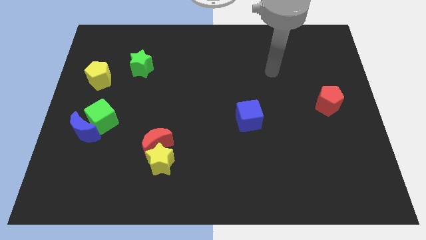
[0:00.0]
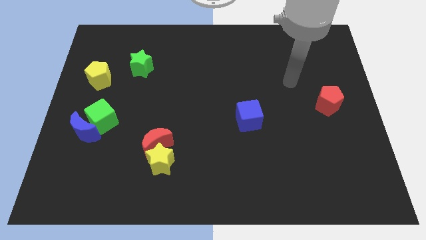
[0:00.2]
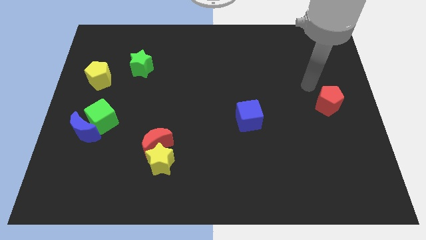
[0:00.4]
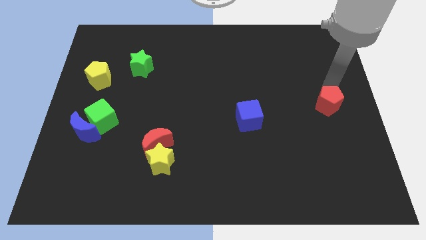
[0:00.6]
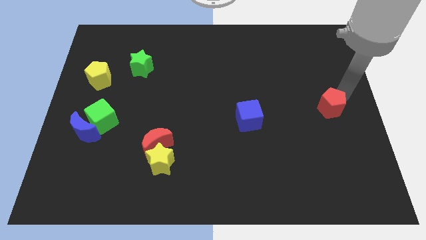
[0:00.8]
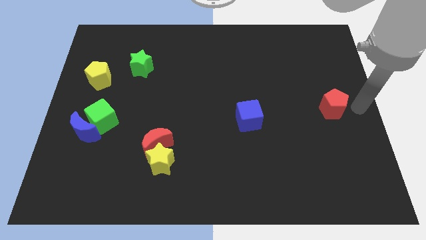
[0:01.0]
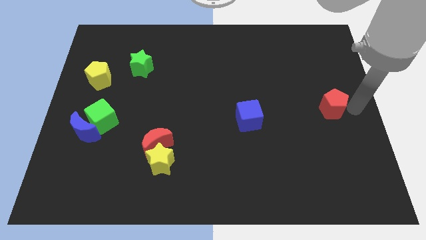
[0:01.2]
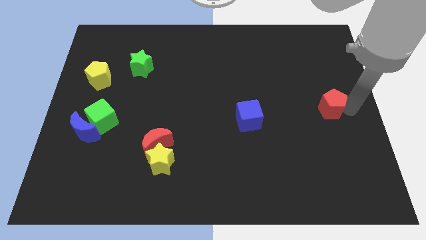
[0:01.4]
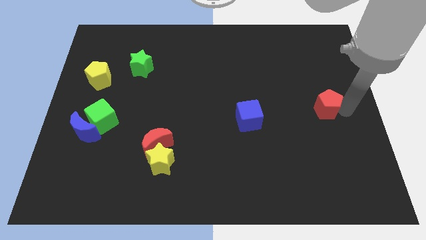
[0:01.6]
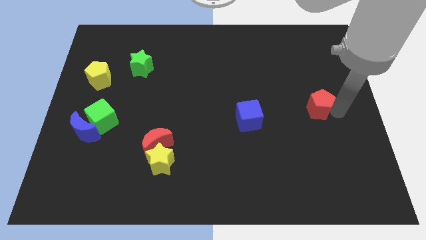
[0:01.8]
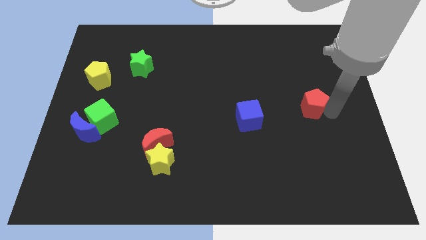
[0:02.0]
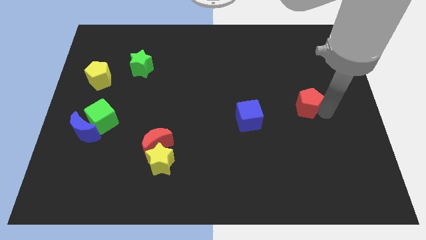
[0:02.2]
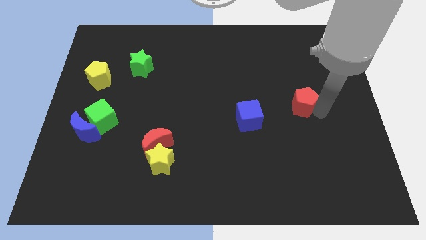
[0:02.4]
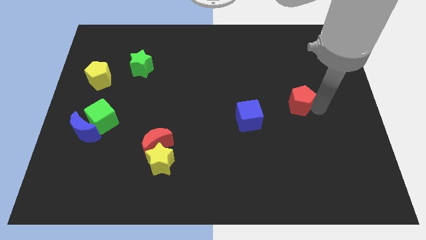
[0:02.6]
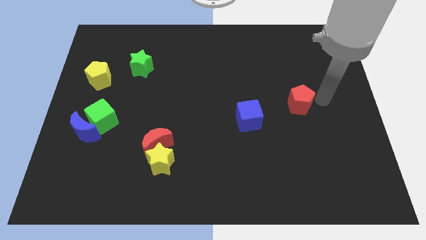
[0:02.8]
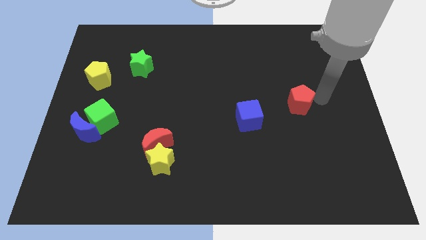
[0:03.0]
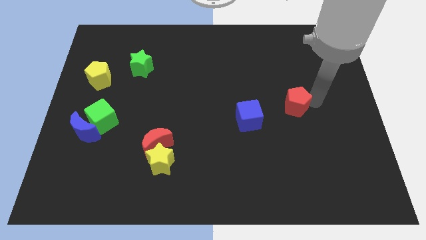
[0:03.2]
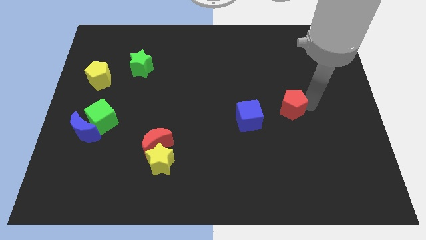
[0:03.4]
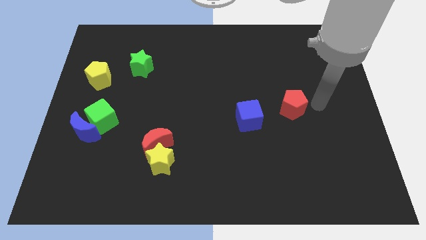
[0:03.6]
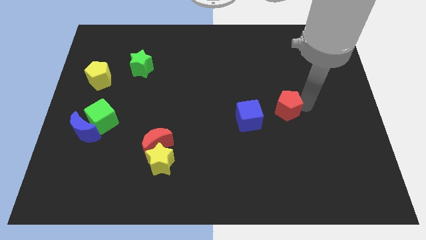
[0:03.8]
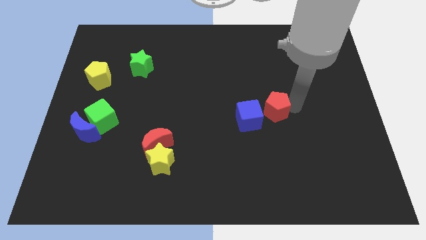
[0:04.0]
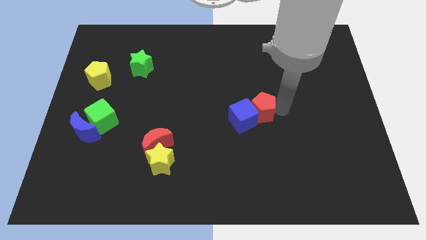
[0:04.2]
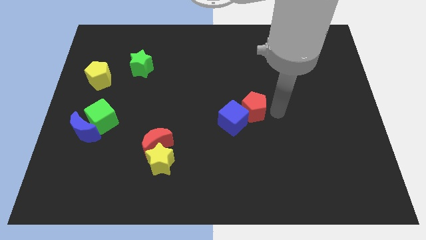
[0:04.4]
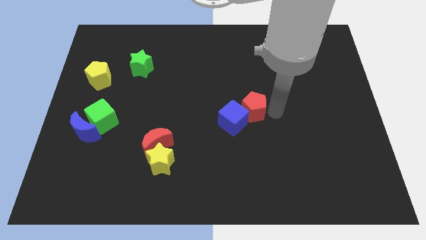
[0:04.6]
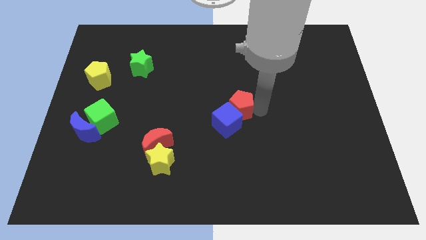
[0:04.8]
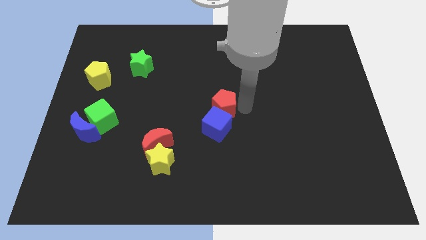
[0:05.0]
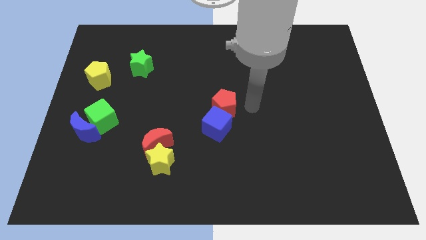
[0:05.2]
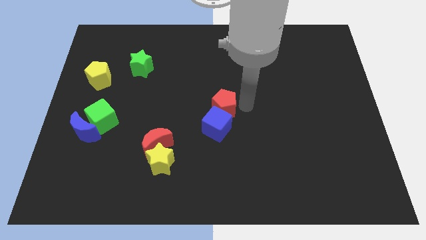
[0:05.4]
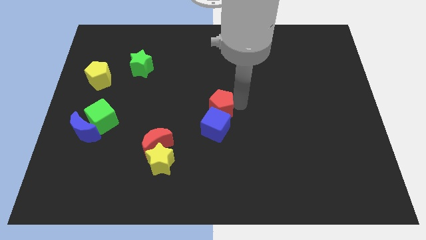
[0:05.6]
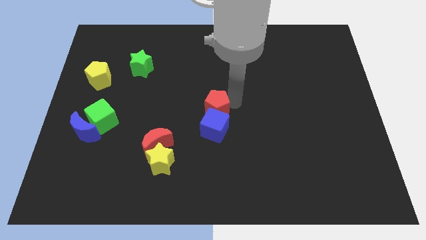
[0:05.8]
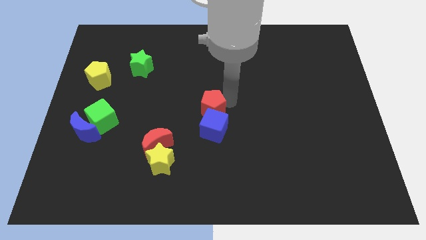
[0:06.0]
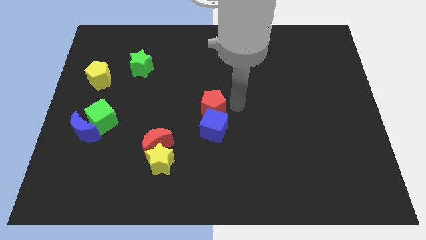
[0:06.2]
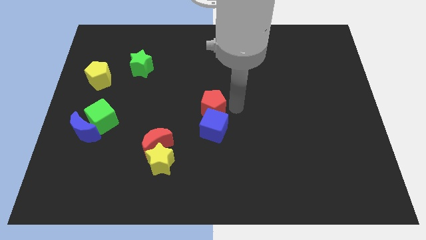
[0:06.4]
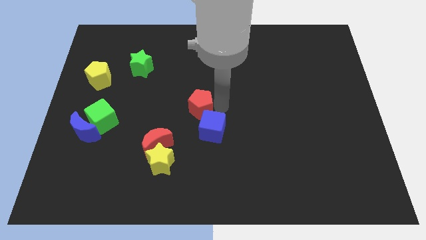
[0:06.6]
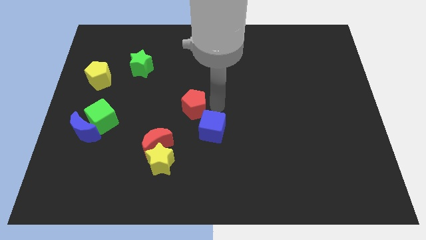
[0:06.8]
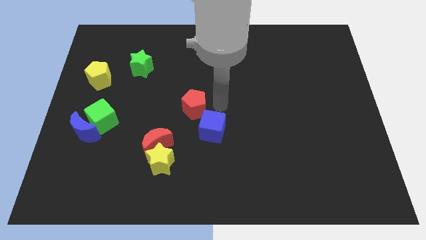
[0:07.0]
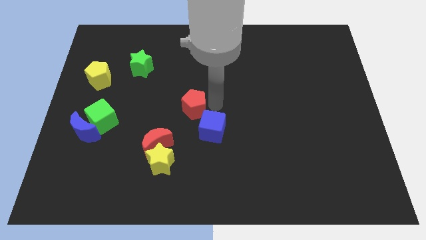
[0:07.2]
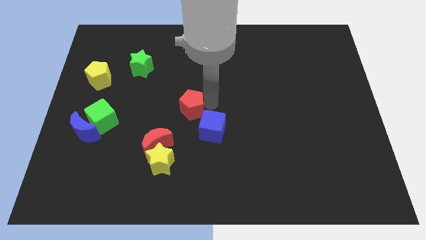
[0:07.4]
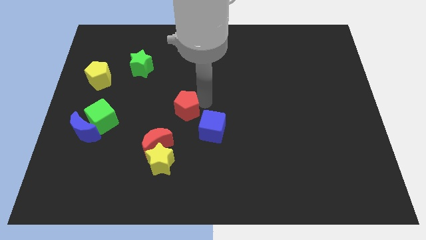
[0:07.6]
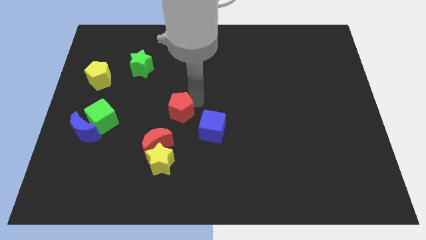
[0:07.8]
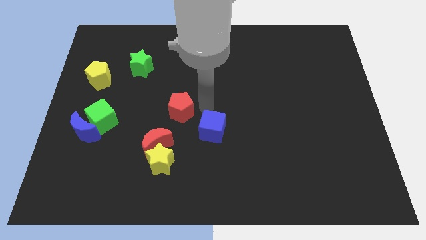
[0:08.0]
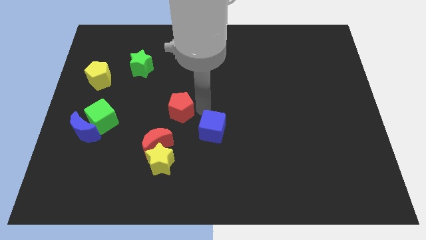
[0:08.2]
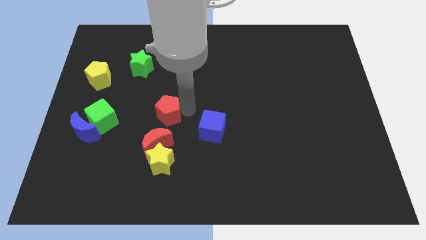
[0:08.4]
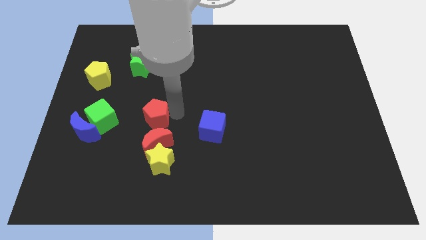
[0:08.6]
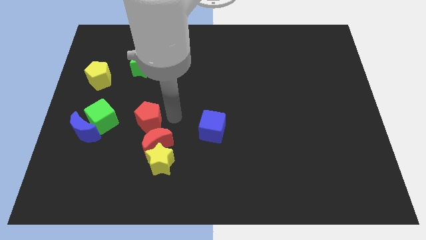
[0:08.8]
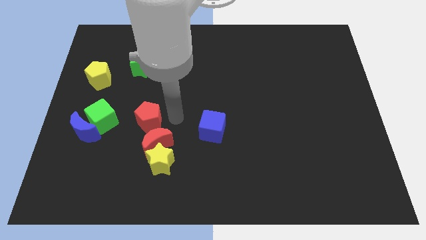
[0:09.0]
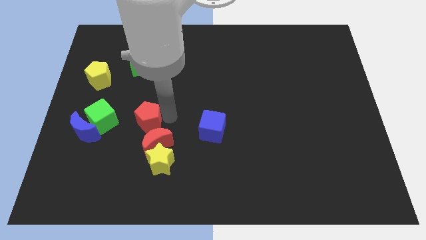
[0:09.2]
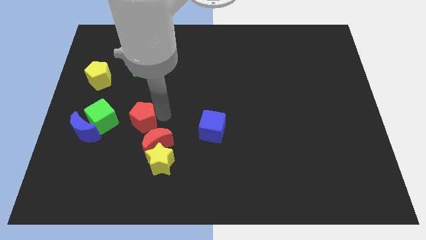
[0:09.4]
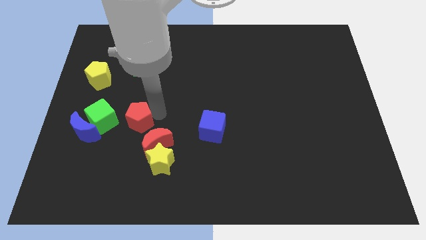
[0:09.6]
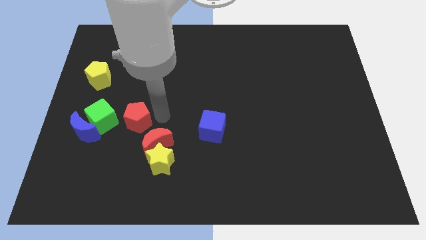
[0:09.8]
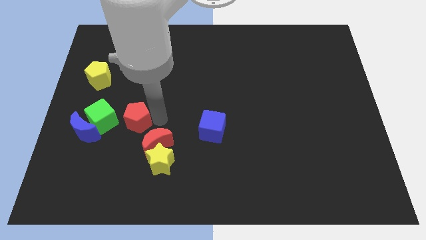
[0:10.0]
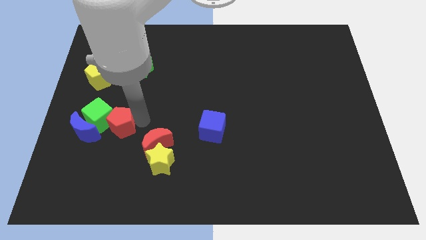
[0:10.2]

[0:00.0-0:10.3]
push the red pentagon close to the green cube

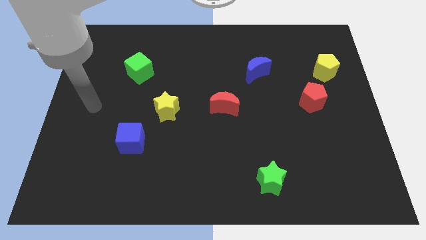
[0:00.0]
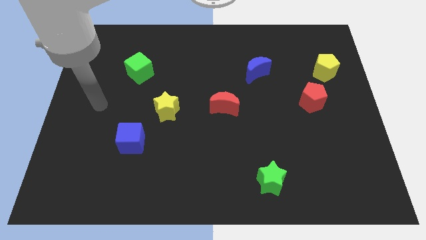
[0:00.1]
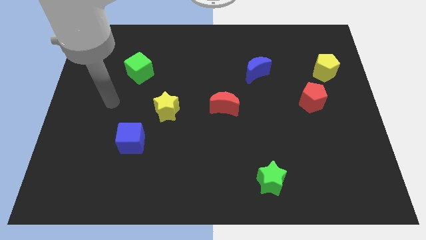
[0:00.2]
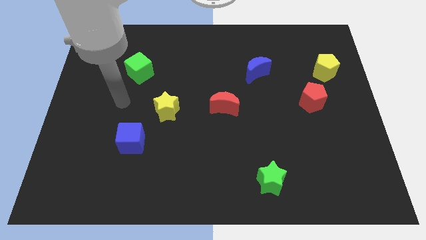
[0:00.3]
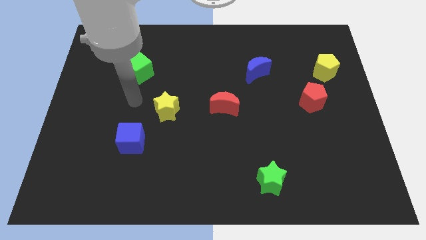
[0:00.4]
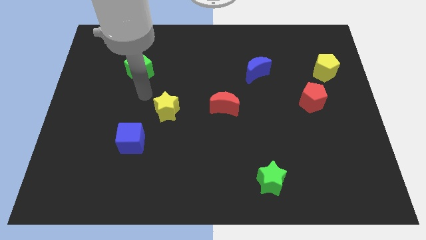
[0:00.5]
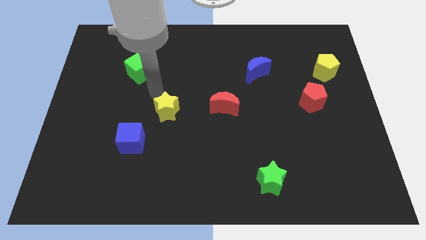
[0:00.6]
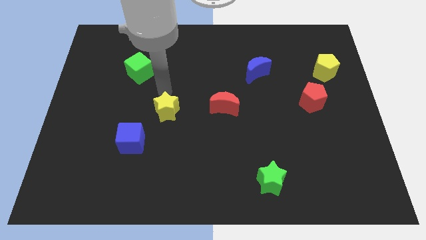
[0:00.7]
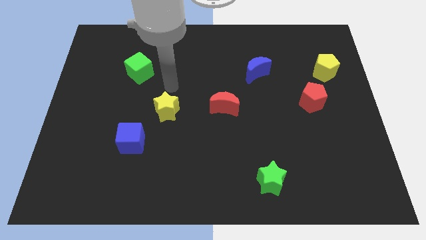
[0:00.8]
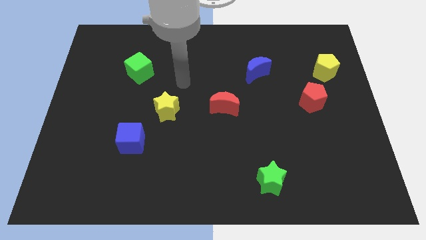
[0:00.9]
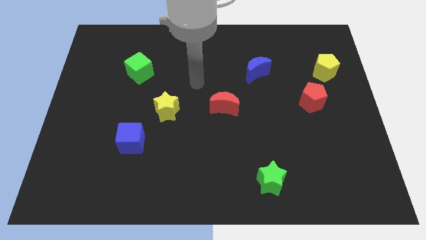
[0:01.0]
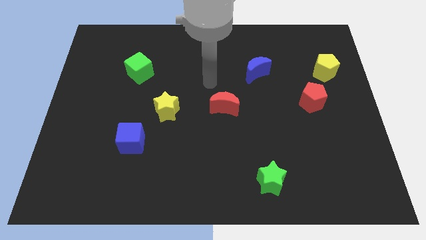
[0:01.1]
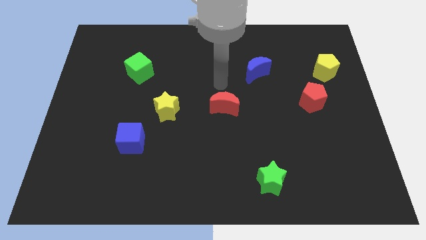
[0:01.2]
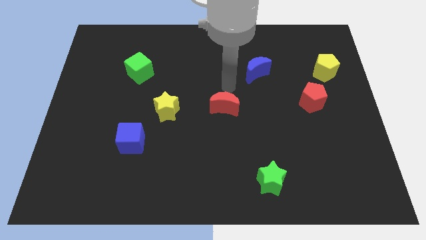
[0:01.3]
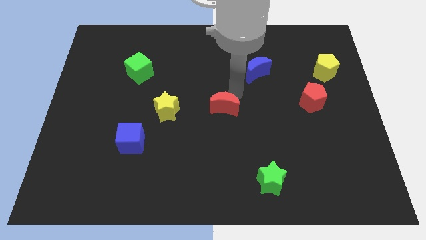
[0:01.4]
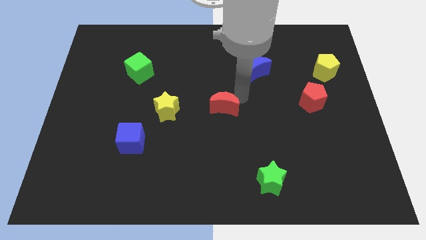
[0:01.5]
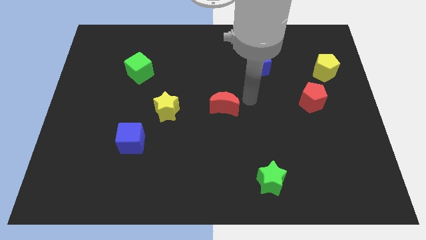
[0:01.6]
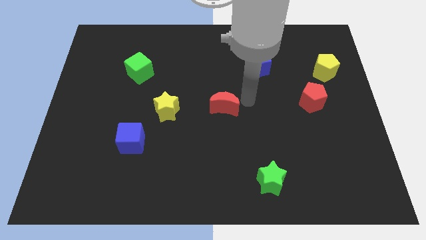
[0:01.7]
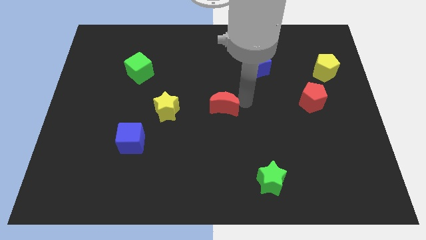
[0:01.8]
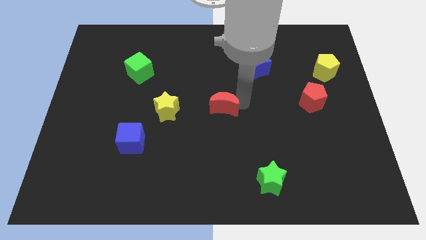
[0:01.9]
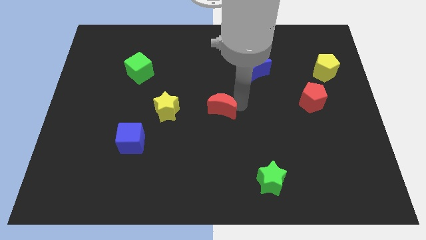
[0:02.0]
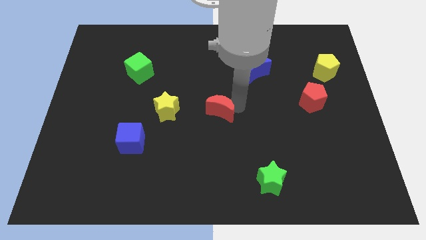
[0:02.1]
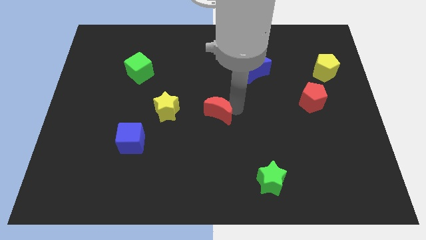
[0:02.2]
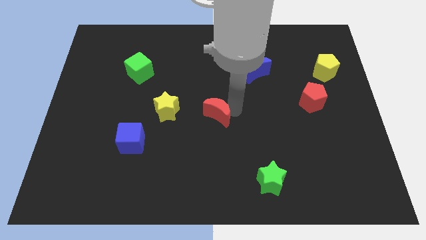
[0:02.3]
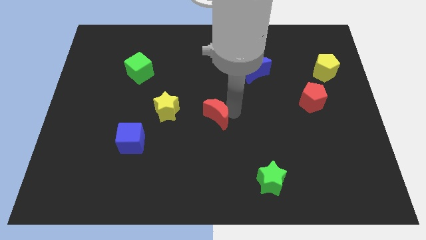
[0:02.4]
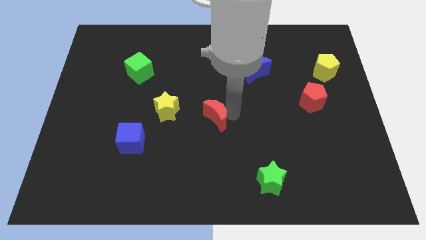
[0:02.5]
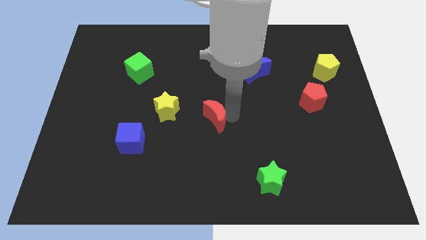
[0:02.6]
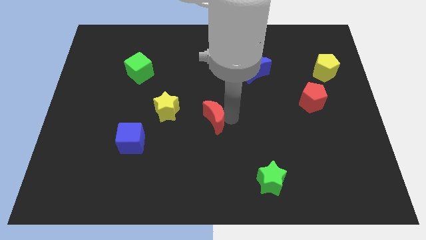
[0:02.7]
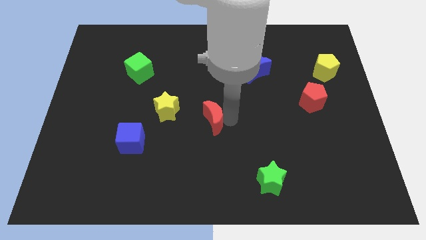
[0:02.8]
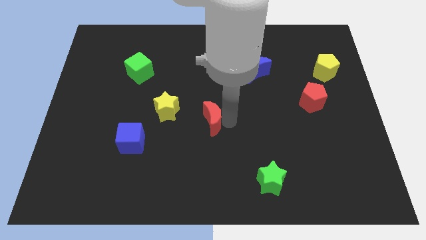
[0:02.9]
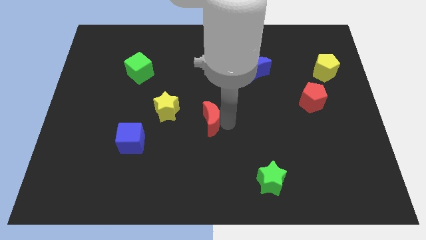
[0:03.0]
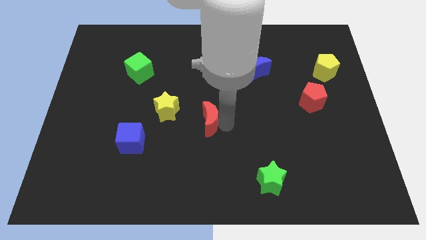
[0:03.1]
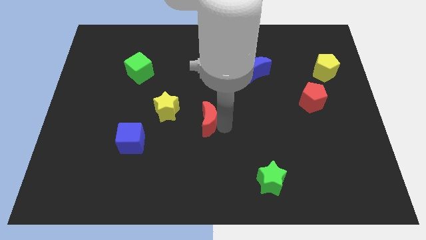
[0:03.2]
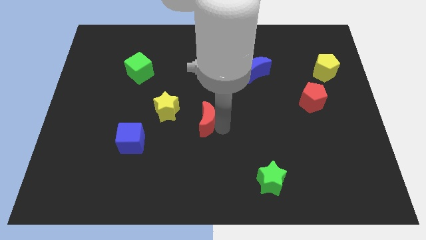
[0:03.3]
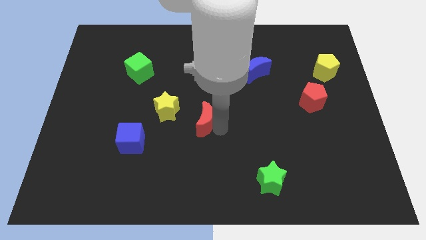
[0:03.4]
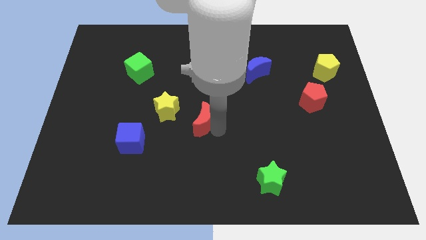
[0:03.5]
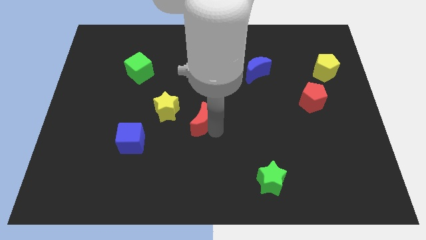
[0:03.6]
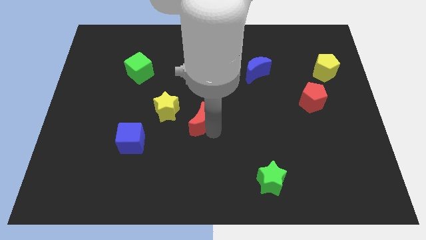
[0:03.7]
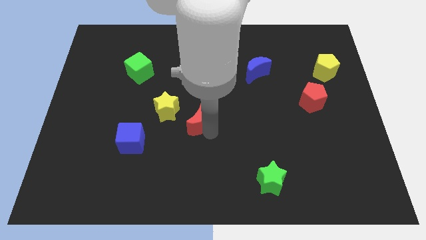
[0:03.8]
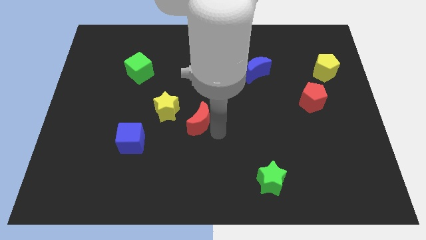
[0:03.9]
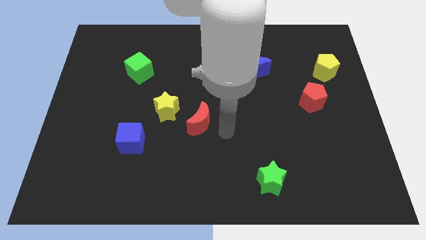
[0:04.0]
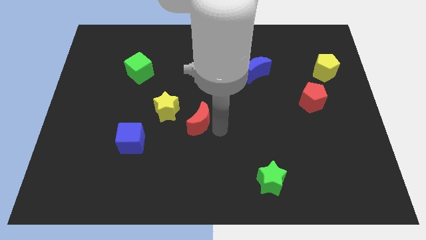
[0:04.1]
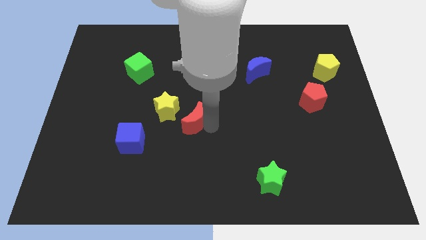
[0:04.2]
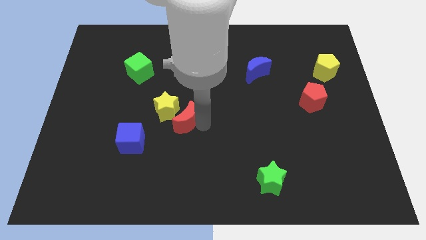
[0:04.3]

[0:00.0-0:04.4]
move the red moon towards the yellow star
